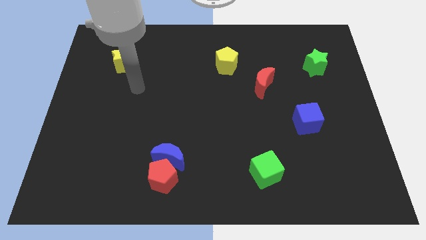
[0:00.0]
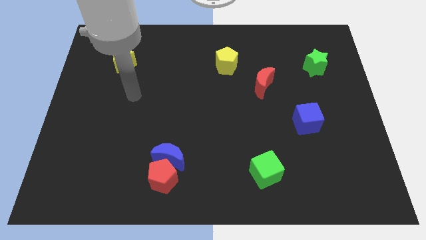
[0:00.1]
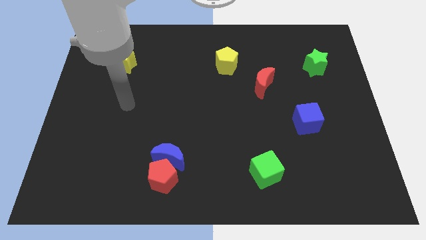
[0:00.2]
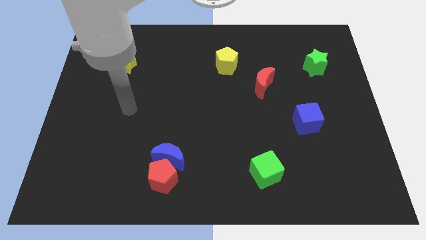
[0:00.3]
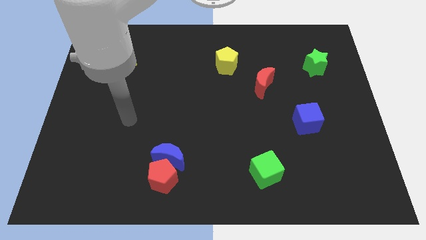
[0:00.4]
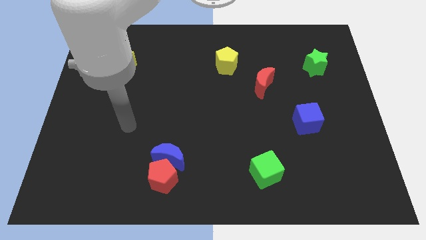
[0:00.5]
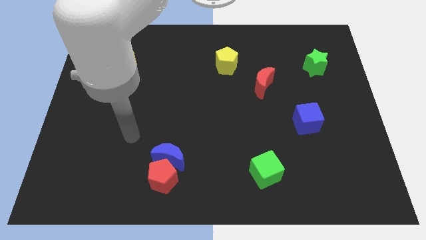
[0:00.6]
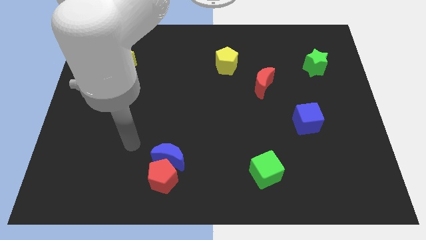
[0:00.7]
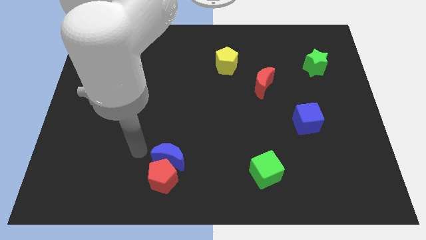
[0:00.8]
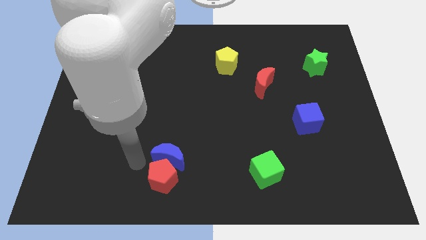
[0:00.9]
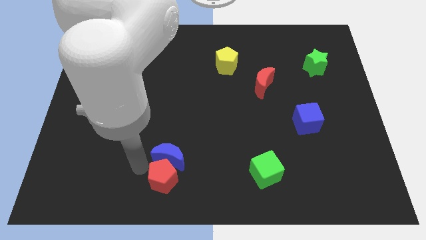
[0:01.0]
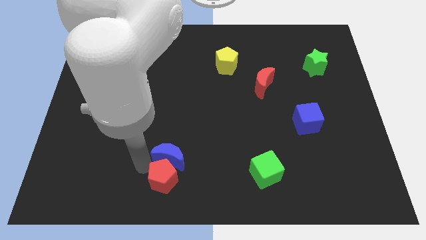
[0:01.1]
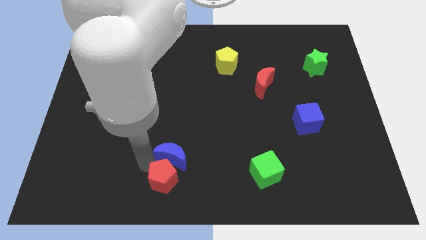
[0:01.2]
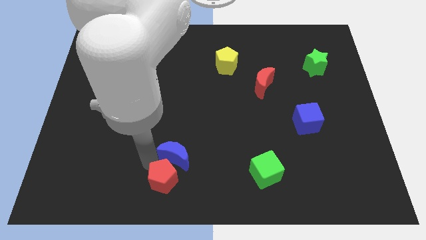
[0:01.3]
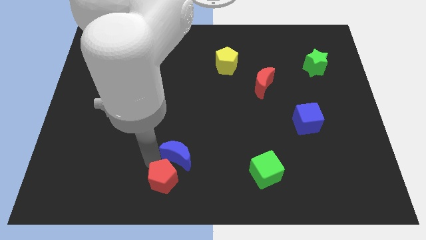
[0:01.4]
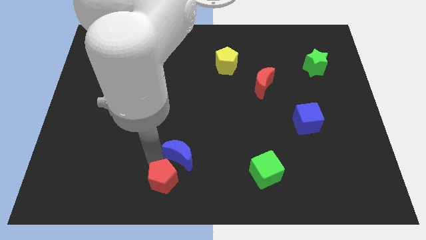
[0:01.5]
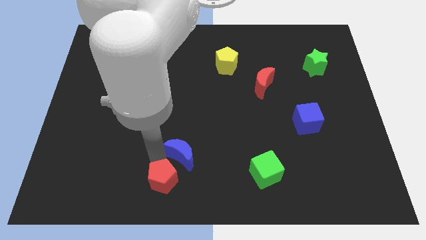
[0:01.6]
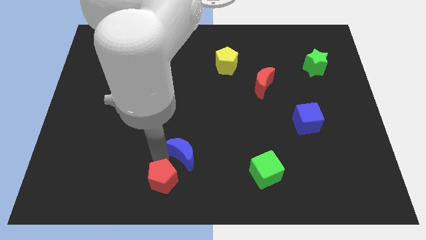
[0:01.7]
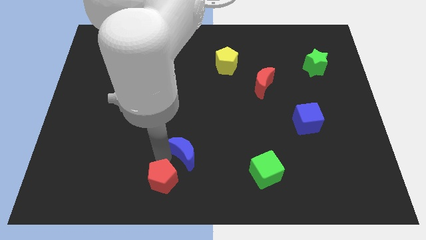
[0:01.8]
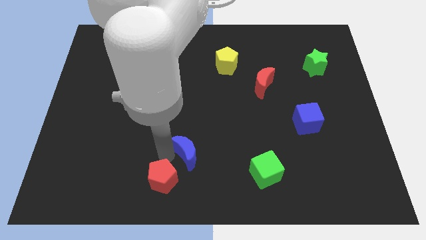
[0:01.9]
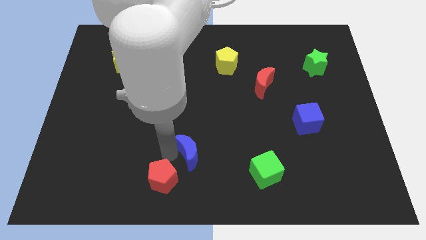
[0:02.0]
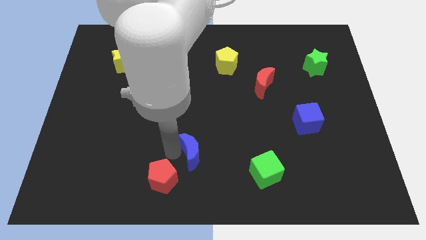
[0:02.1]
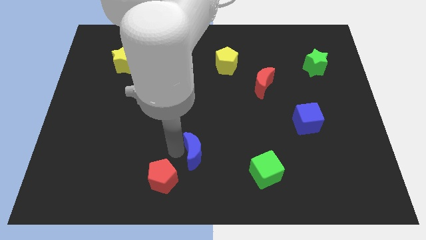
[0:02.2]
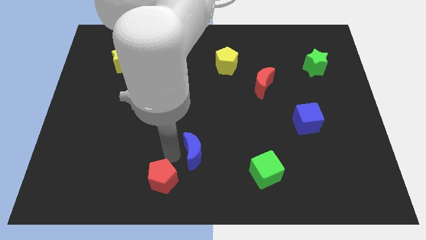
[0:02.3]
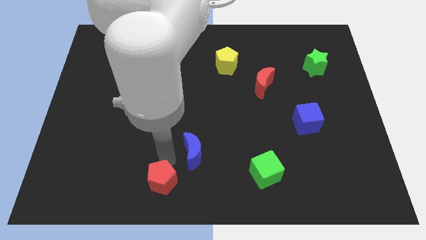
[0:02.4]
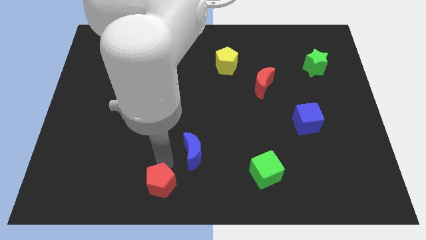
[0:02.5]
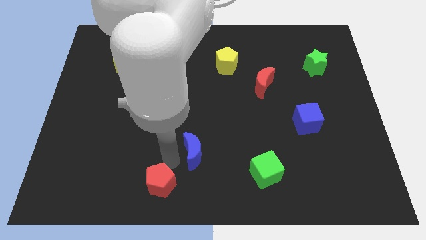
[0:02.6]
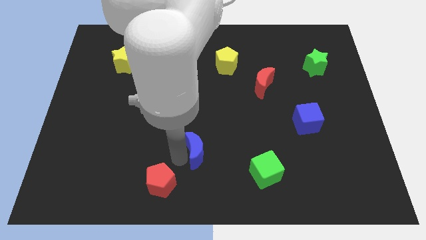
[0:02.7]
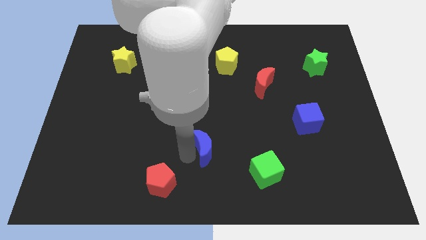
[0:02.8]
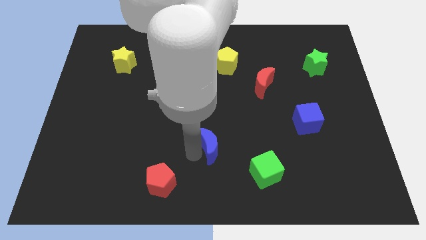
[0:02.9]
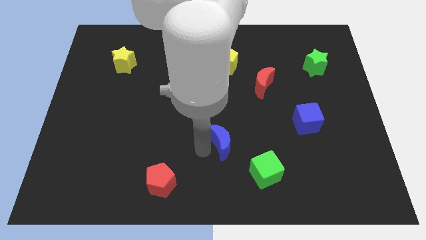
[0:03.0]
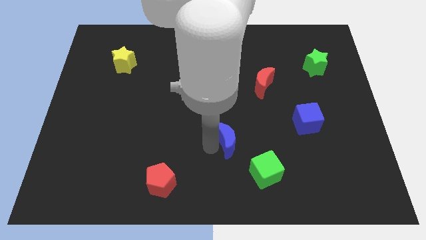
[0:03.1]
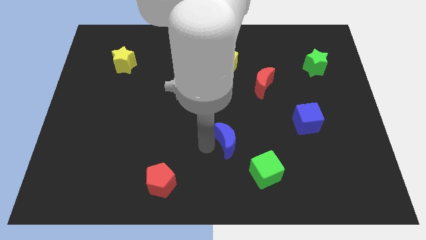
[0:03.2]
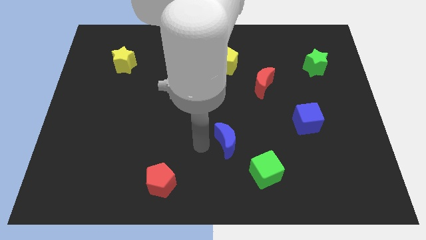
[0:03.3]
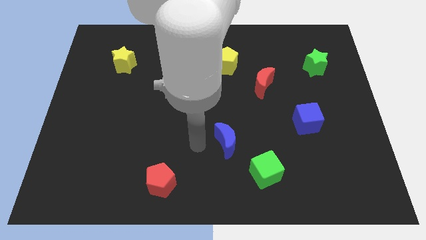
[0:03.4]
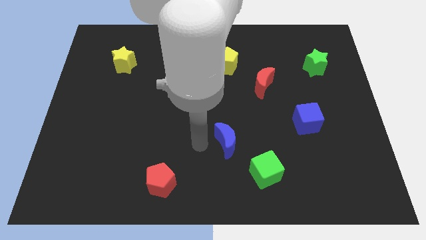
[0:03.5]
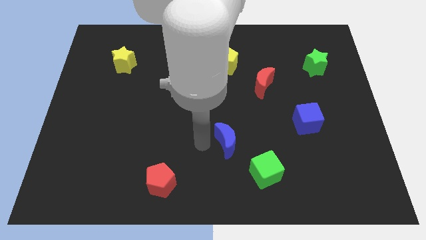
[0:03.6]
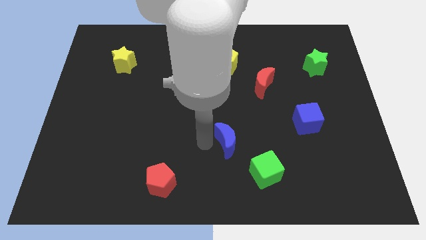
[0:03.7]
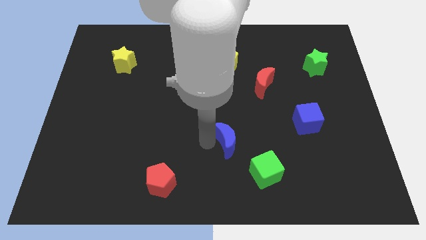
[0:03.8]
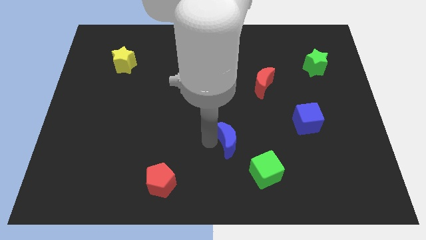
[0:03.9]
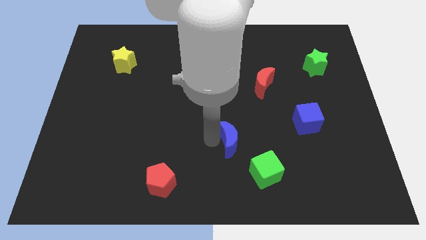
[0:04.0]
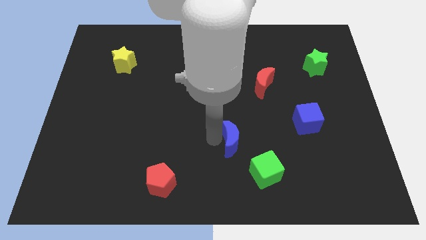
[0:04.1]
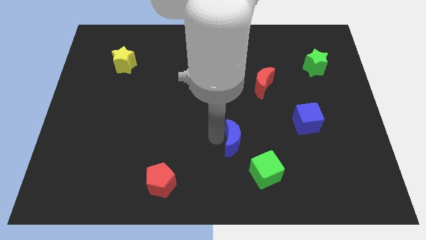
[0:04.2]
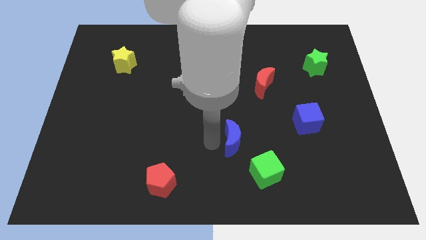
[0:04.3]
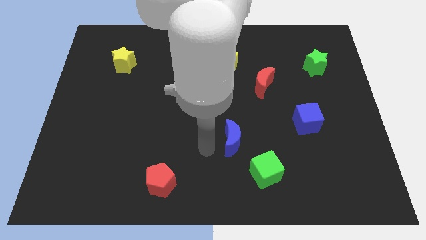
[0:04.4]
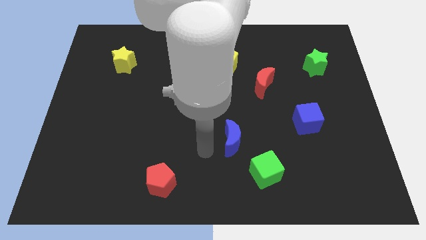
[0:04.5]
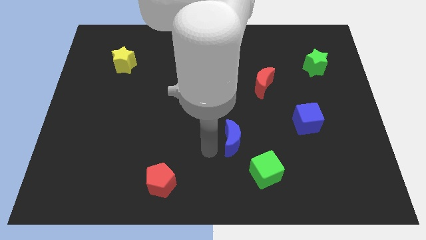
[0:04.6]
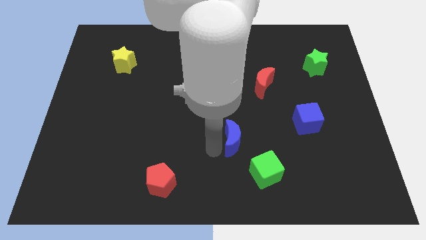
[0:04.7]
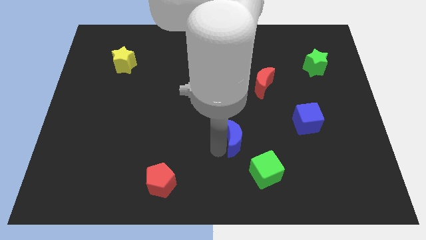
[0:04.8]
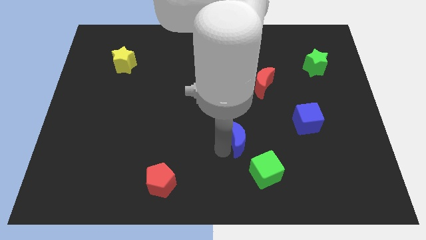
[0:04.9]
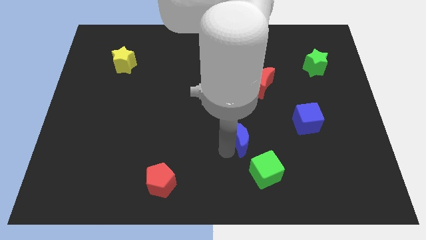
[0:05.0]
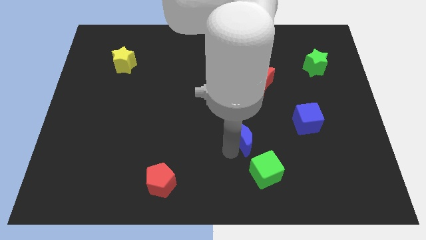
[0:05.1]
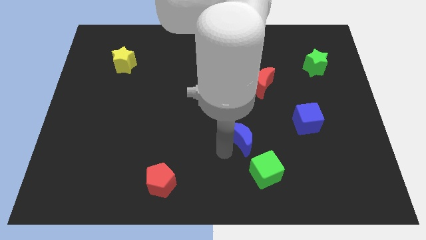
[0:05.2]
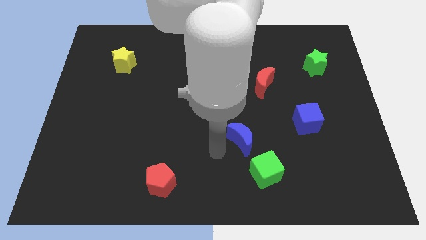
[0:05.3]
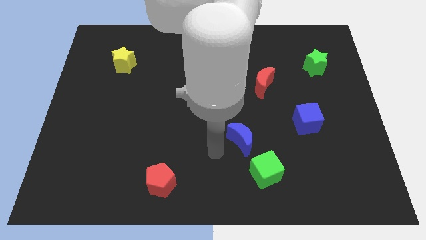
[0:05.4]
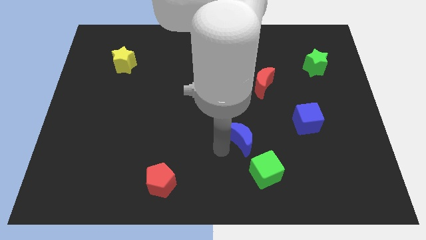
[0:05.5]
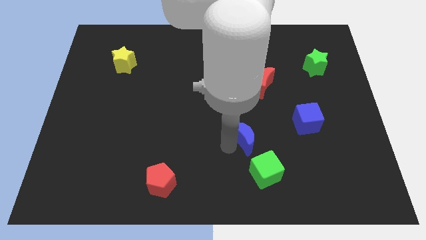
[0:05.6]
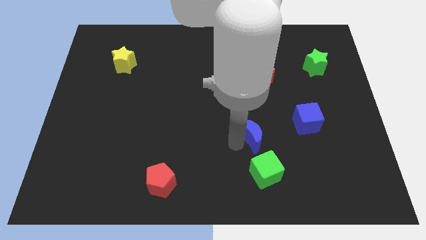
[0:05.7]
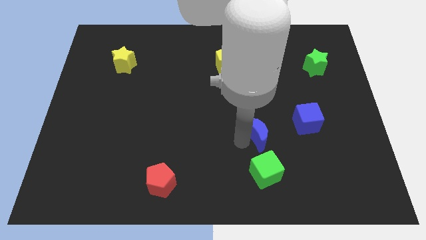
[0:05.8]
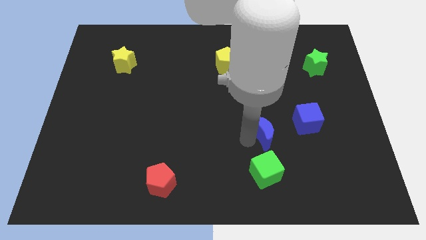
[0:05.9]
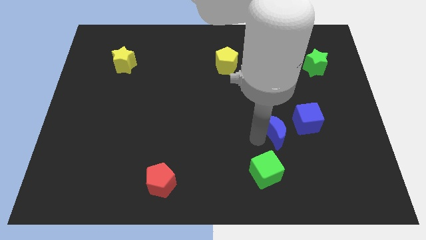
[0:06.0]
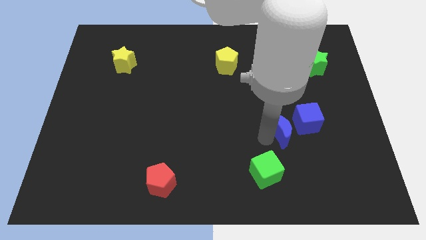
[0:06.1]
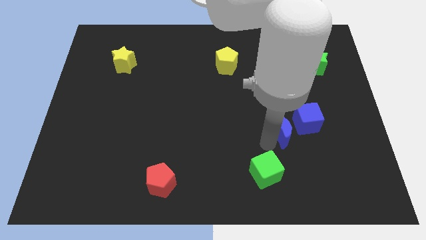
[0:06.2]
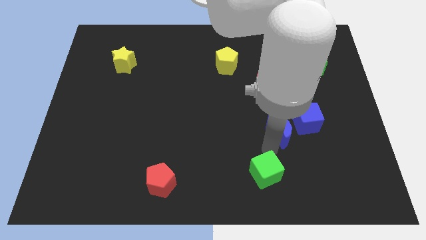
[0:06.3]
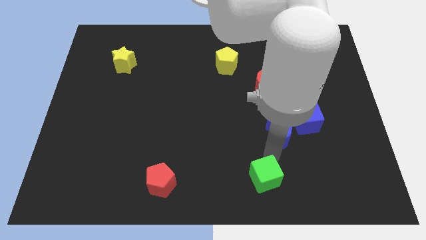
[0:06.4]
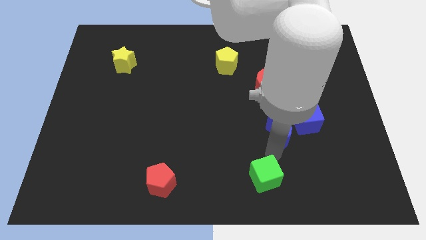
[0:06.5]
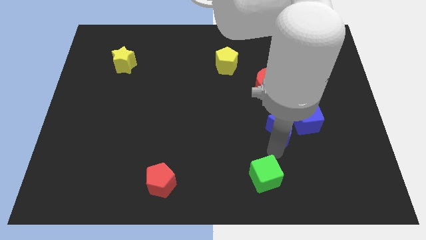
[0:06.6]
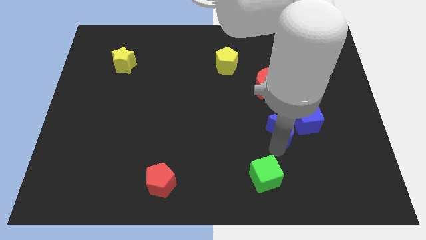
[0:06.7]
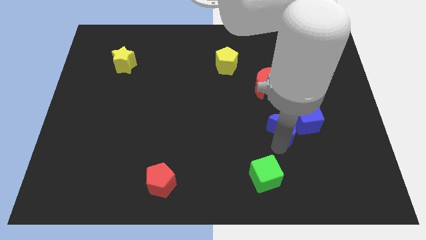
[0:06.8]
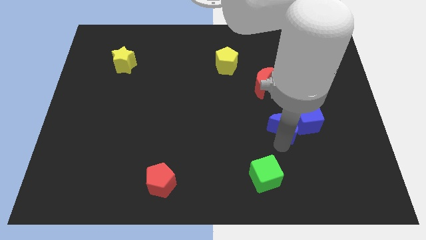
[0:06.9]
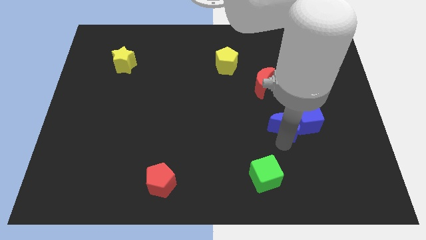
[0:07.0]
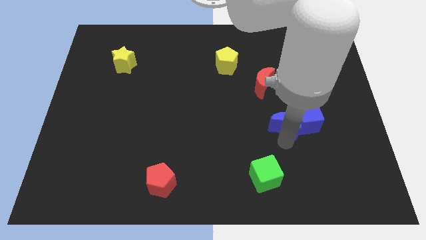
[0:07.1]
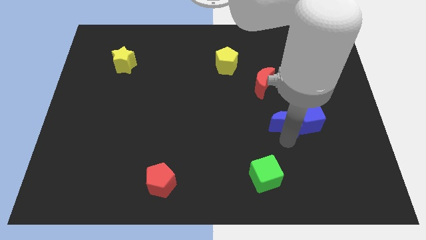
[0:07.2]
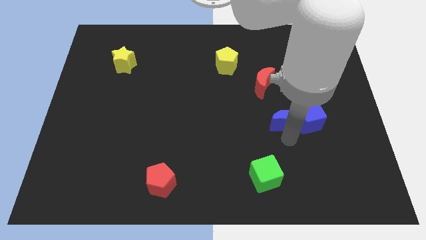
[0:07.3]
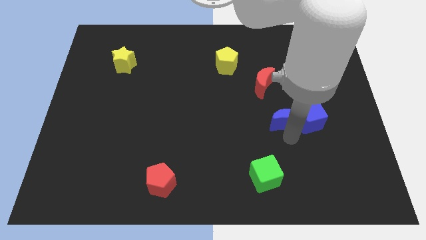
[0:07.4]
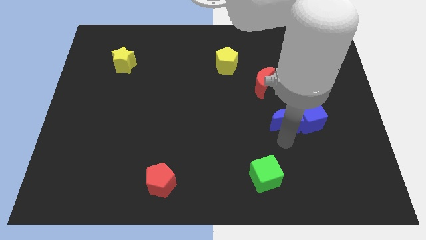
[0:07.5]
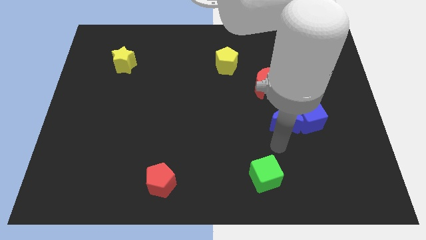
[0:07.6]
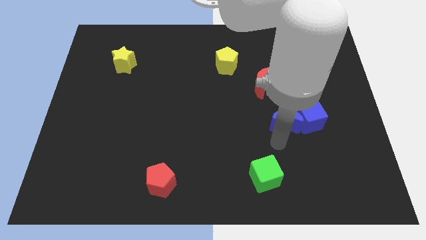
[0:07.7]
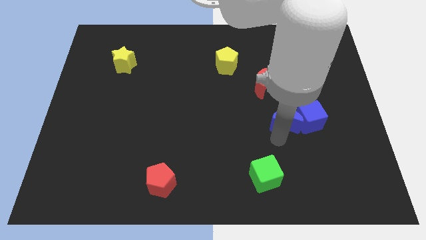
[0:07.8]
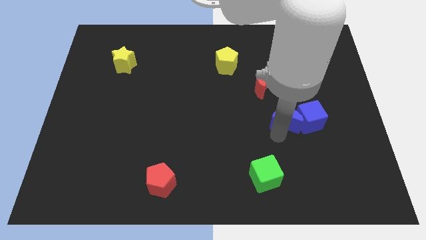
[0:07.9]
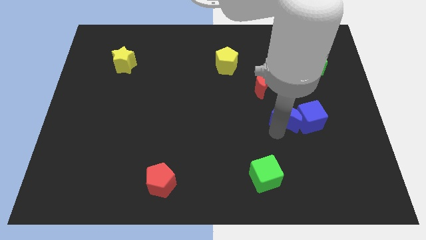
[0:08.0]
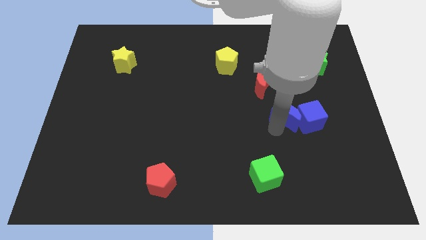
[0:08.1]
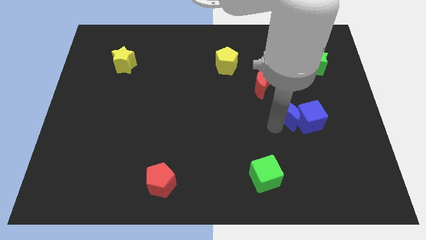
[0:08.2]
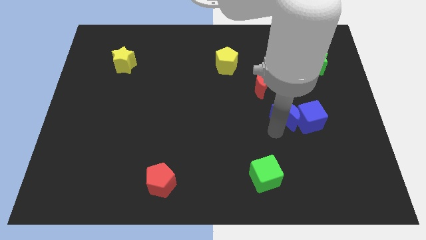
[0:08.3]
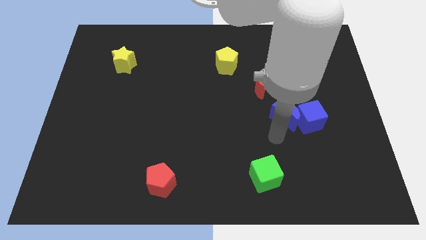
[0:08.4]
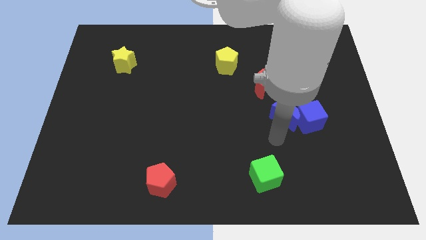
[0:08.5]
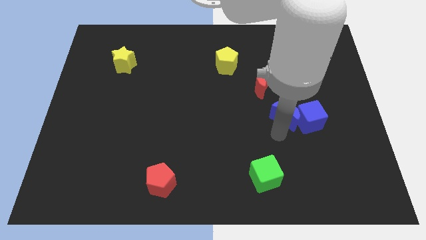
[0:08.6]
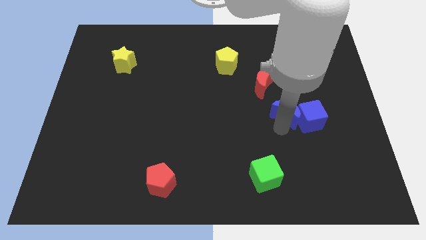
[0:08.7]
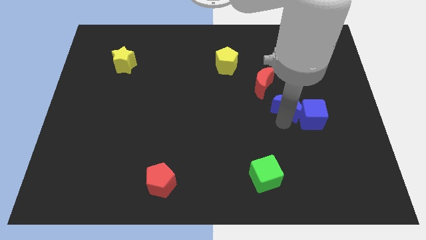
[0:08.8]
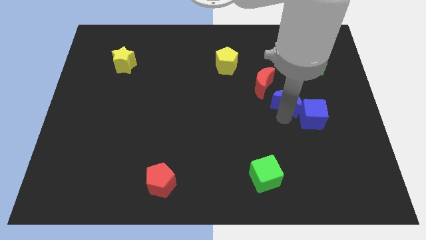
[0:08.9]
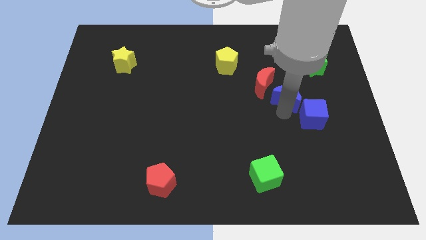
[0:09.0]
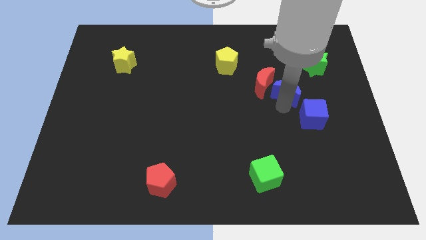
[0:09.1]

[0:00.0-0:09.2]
move the blue moon to the top side of the blue cube
